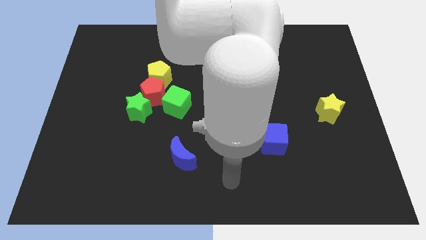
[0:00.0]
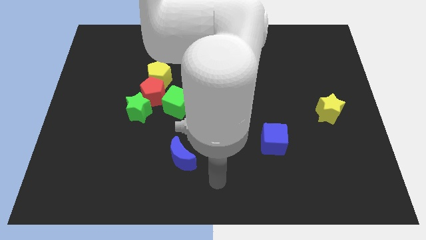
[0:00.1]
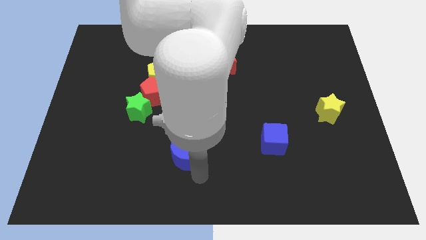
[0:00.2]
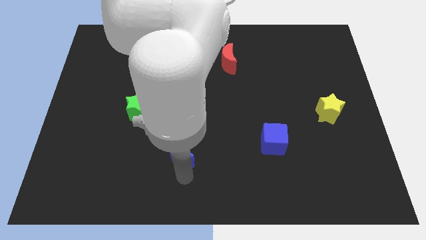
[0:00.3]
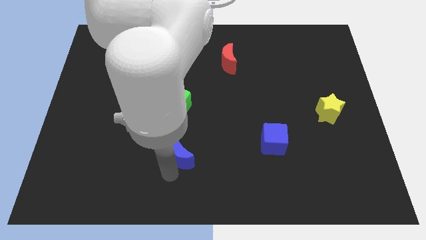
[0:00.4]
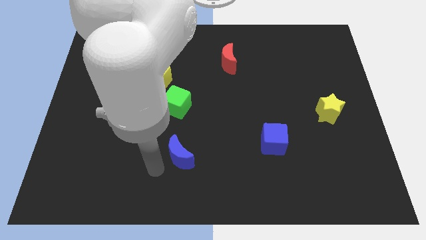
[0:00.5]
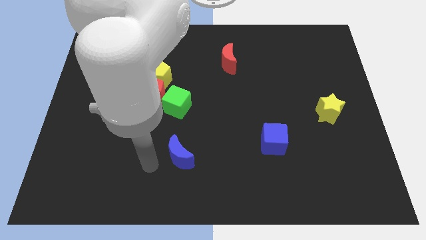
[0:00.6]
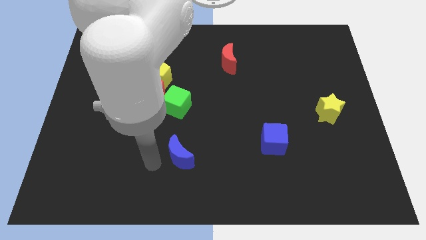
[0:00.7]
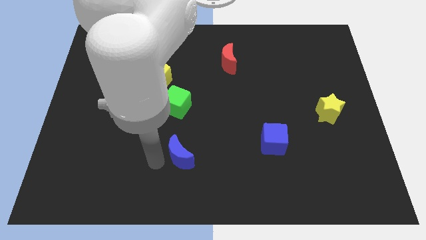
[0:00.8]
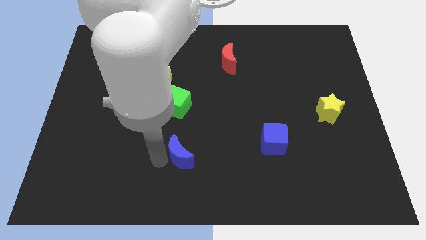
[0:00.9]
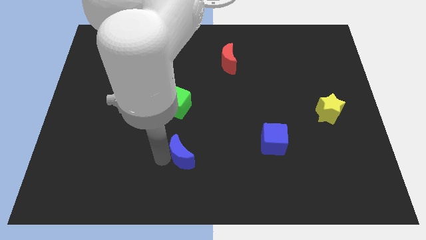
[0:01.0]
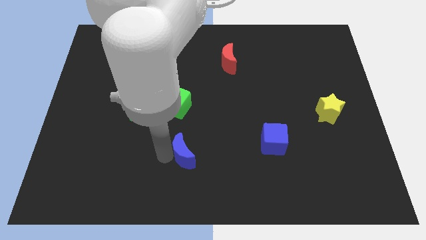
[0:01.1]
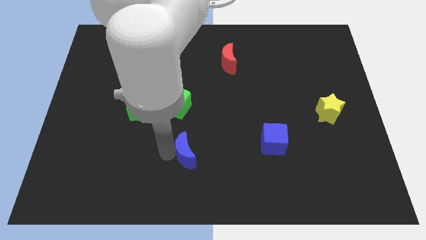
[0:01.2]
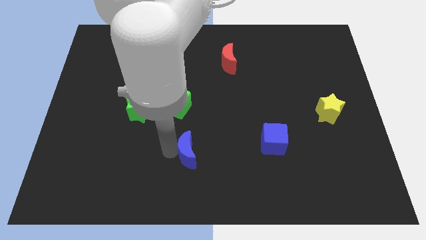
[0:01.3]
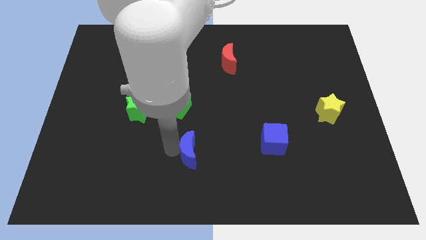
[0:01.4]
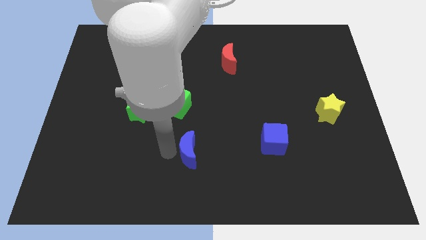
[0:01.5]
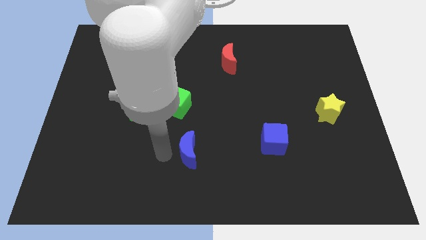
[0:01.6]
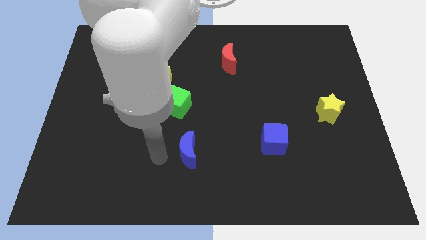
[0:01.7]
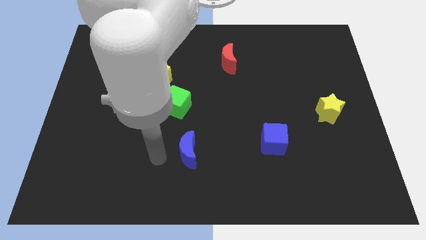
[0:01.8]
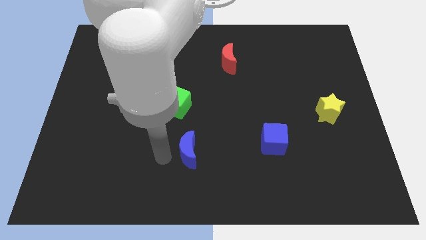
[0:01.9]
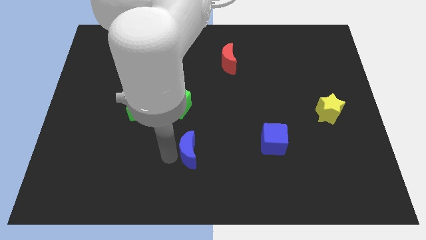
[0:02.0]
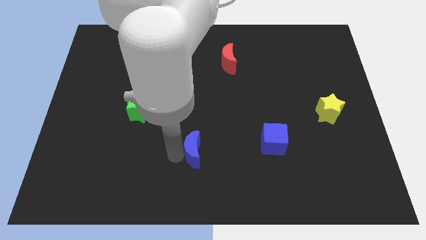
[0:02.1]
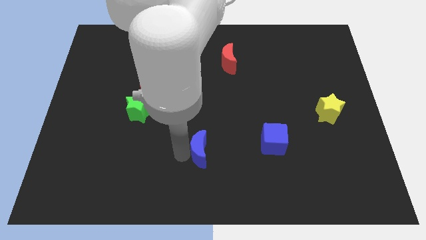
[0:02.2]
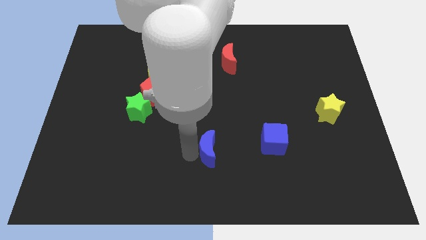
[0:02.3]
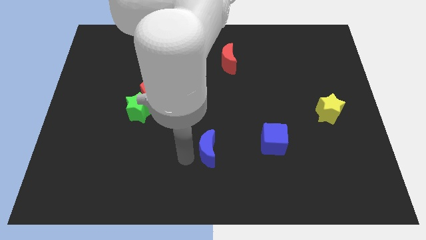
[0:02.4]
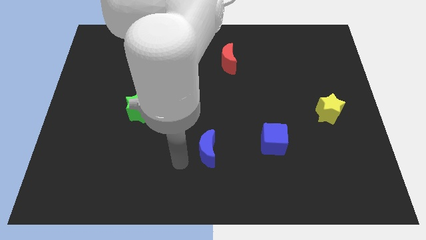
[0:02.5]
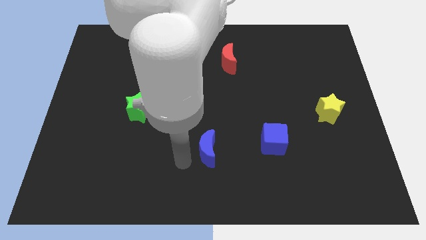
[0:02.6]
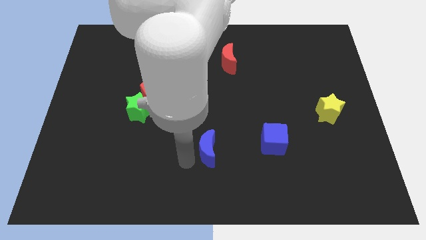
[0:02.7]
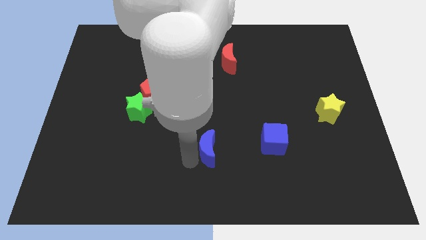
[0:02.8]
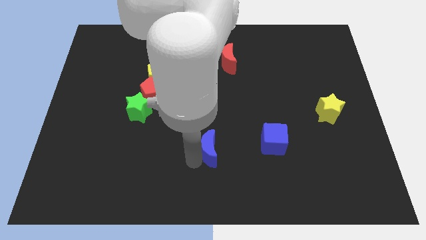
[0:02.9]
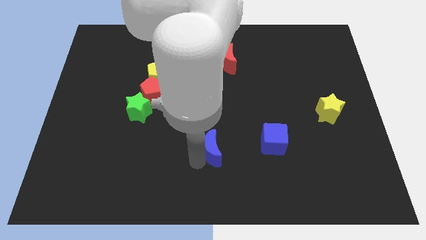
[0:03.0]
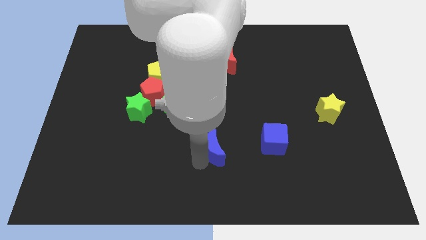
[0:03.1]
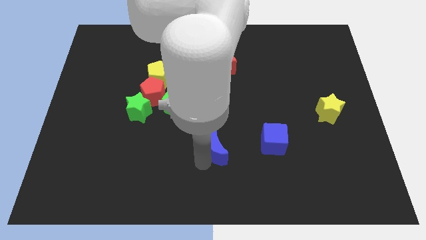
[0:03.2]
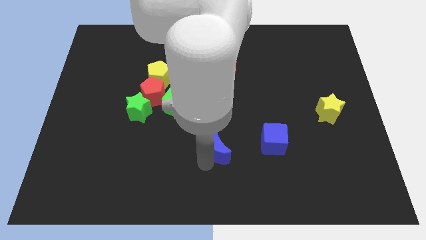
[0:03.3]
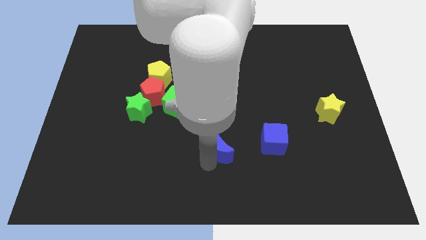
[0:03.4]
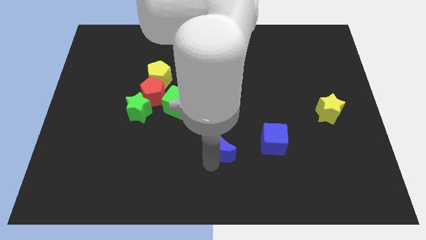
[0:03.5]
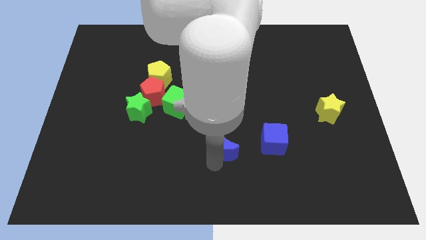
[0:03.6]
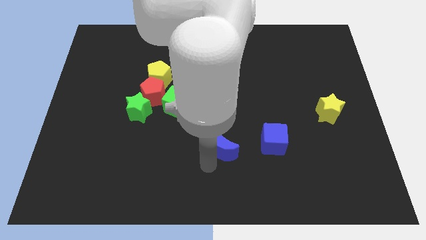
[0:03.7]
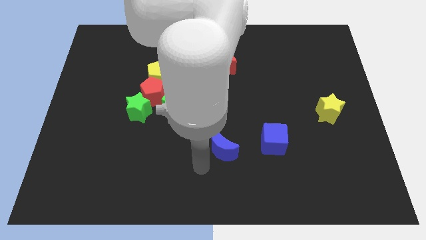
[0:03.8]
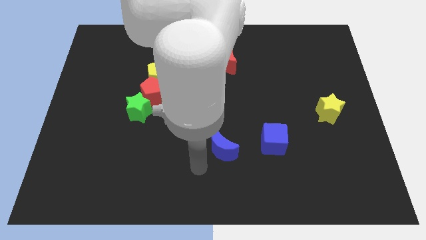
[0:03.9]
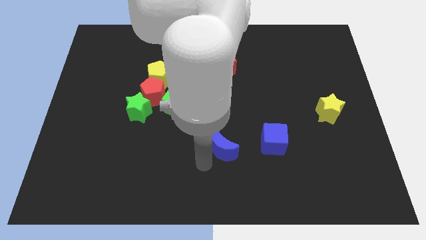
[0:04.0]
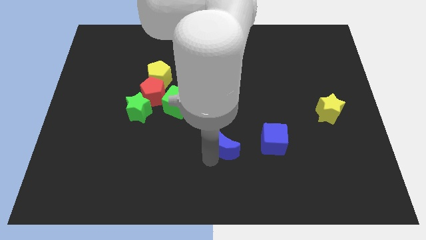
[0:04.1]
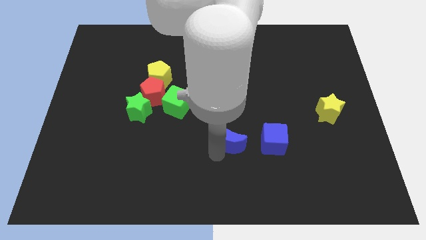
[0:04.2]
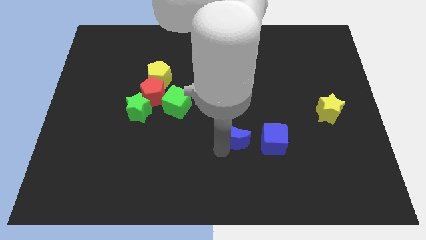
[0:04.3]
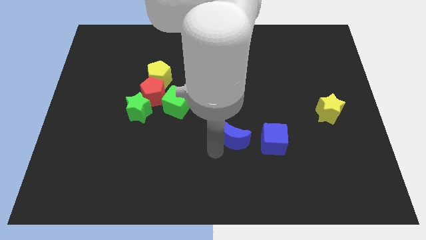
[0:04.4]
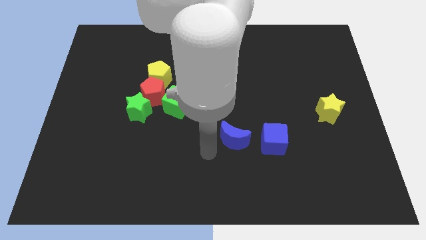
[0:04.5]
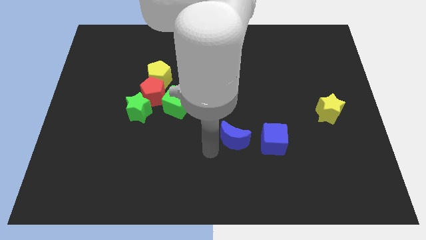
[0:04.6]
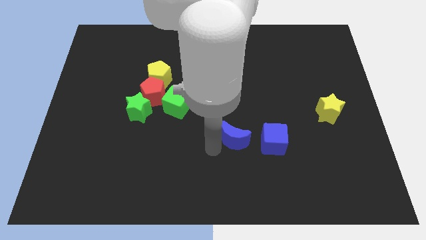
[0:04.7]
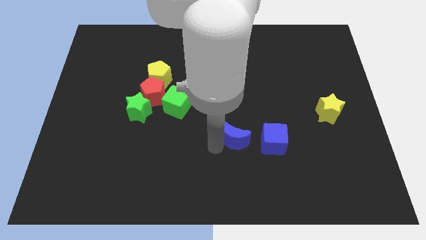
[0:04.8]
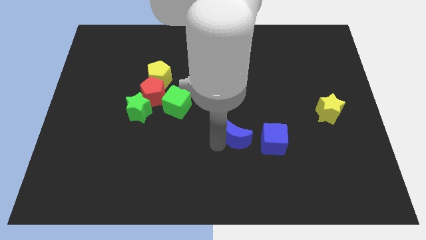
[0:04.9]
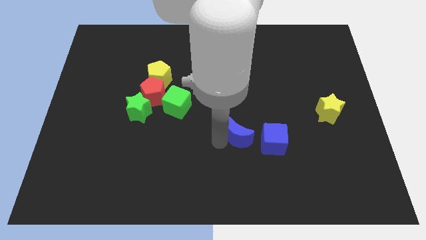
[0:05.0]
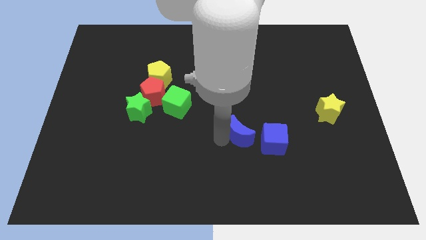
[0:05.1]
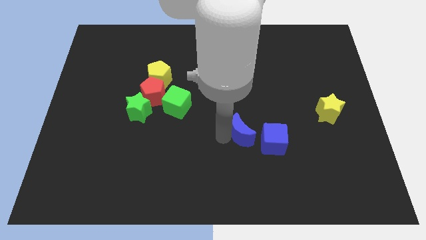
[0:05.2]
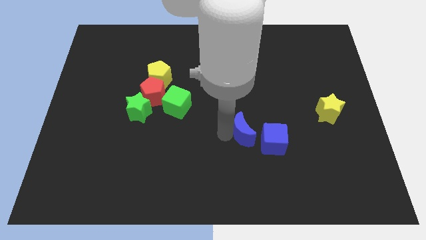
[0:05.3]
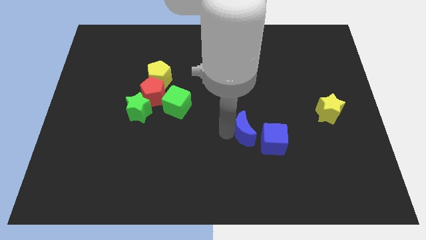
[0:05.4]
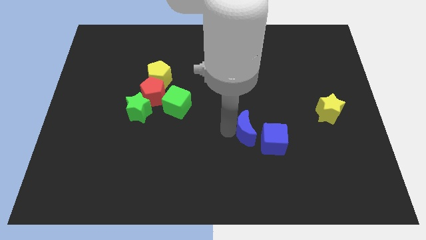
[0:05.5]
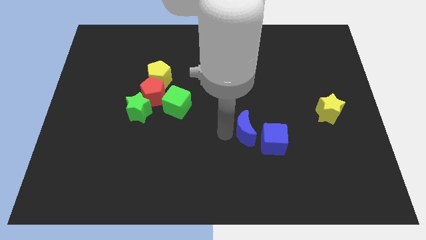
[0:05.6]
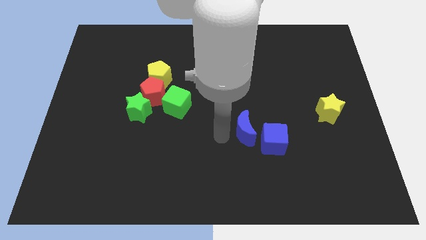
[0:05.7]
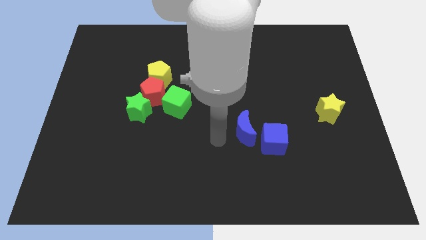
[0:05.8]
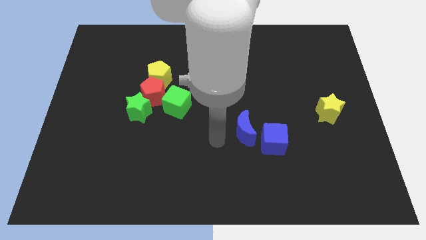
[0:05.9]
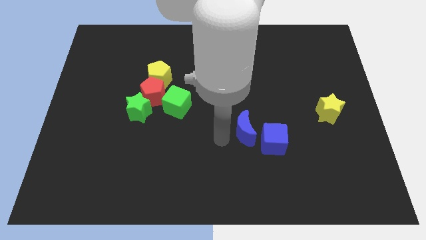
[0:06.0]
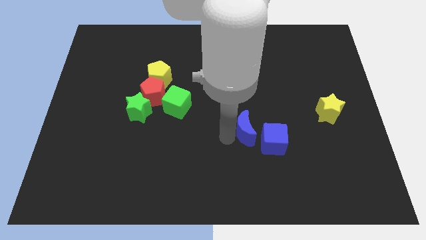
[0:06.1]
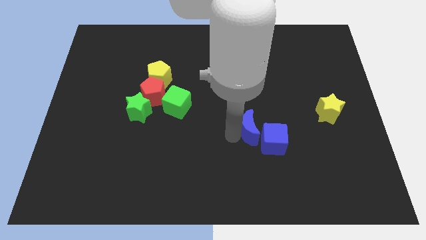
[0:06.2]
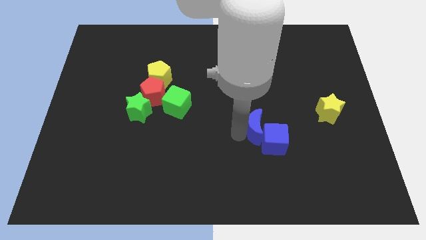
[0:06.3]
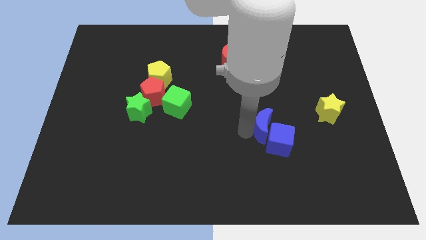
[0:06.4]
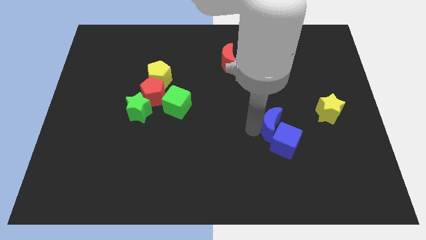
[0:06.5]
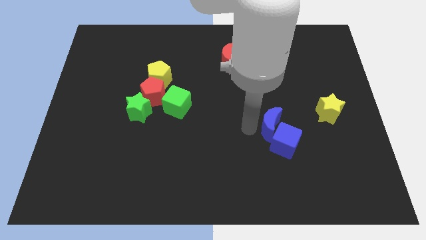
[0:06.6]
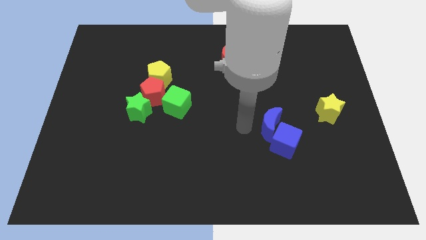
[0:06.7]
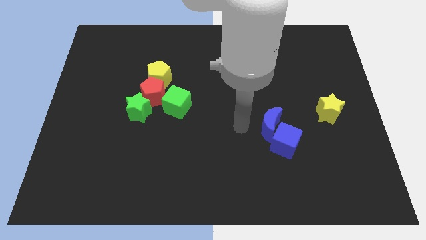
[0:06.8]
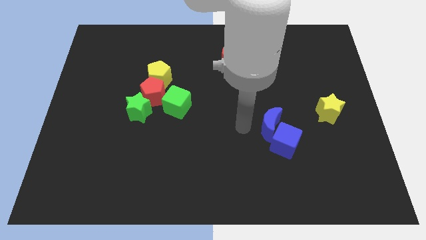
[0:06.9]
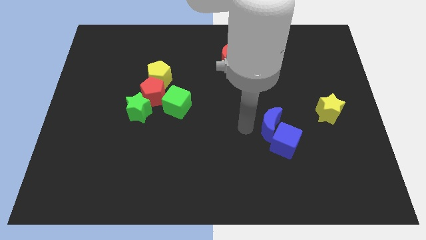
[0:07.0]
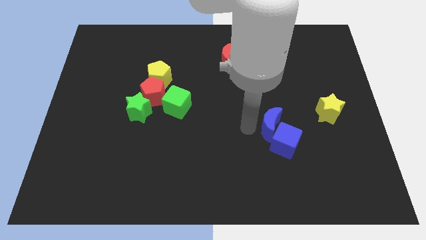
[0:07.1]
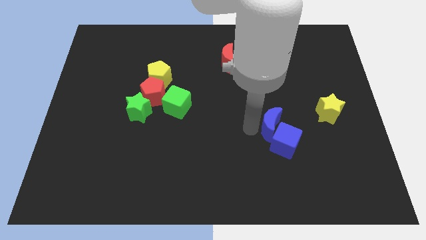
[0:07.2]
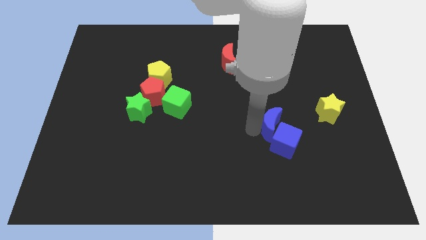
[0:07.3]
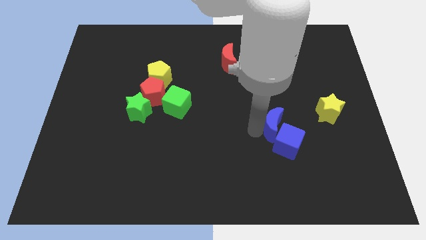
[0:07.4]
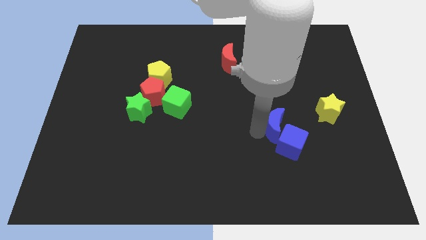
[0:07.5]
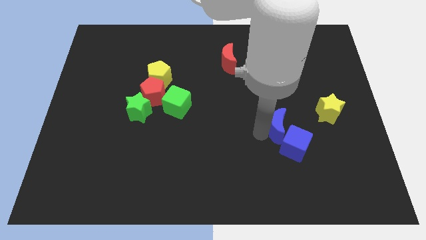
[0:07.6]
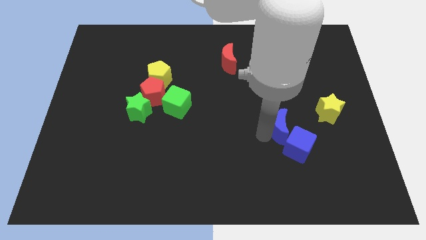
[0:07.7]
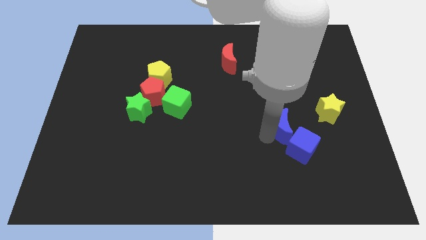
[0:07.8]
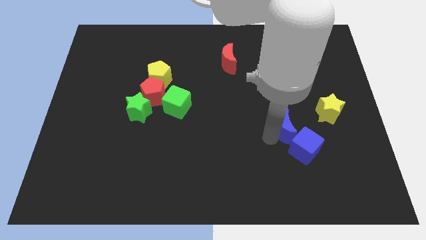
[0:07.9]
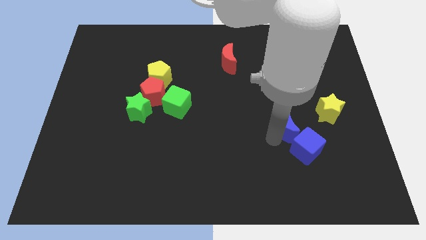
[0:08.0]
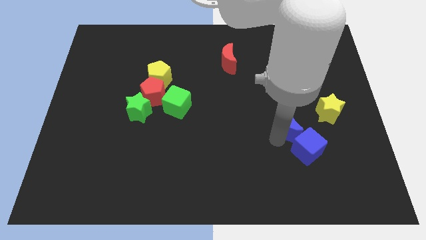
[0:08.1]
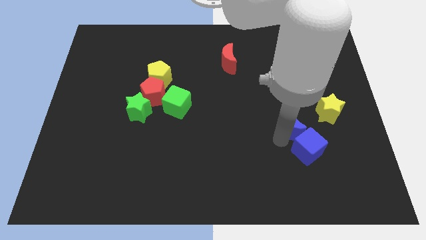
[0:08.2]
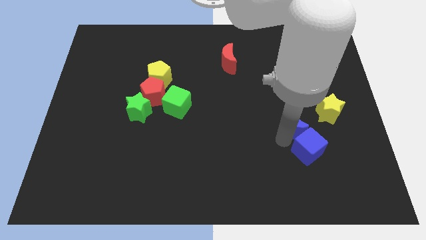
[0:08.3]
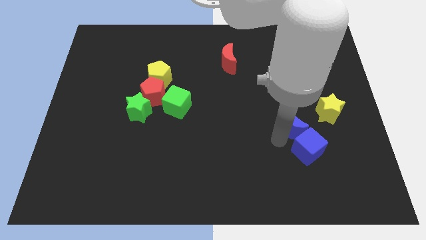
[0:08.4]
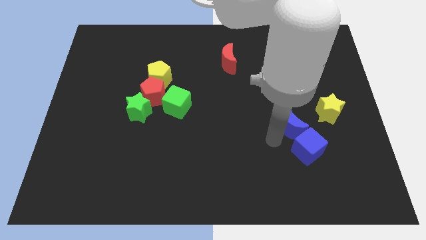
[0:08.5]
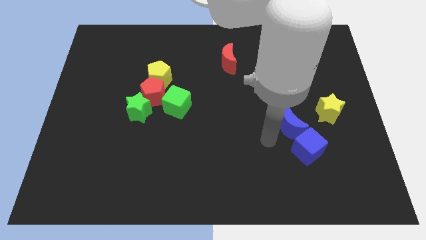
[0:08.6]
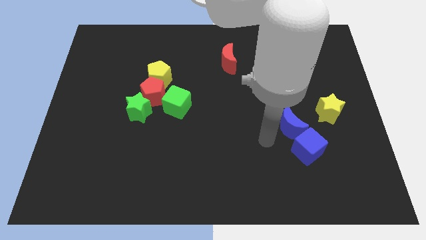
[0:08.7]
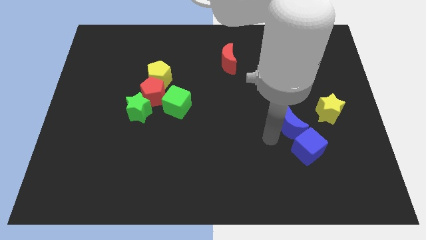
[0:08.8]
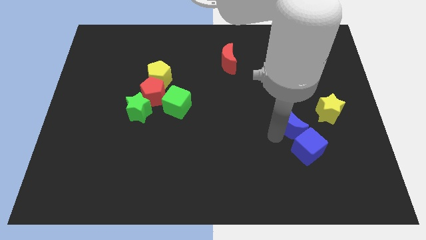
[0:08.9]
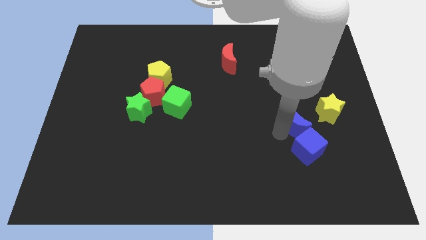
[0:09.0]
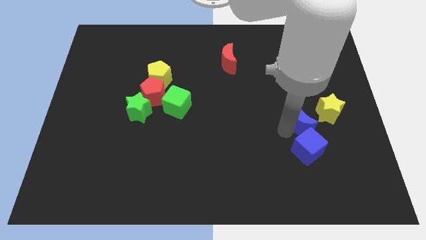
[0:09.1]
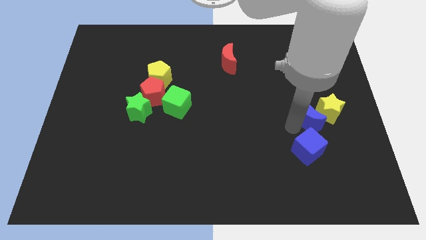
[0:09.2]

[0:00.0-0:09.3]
move the blue moon to the yellow star
